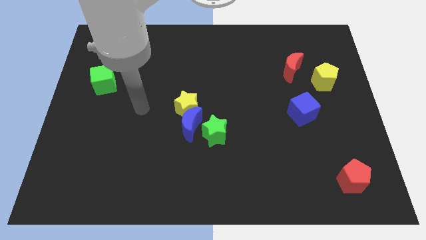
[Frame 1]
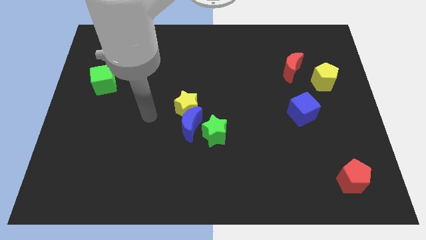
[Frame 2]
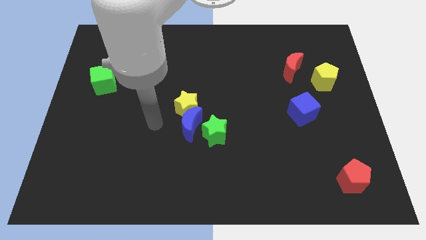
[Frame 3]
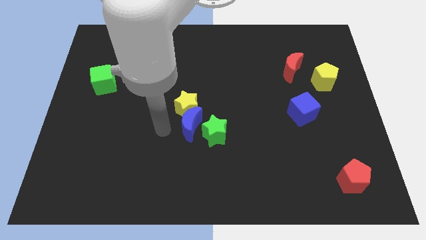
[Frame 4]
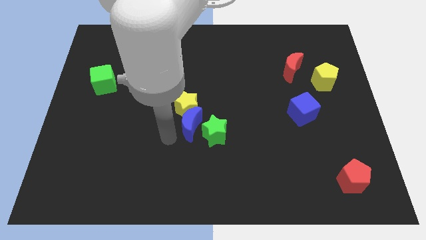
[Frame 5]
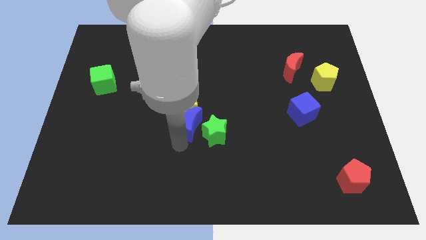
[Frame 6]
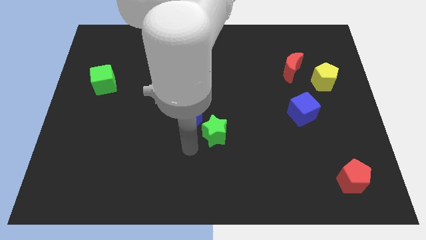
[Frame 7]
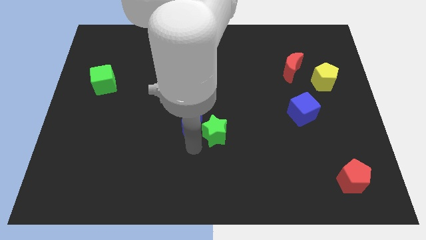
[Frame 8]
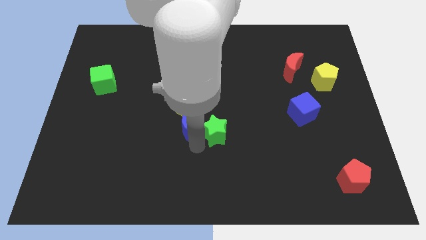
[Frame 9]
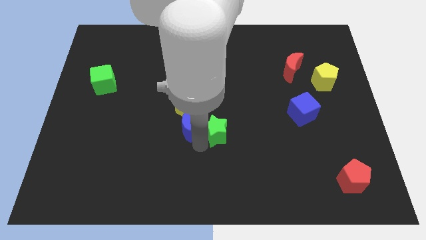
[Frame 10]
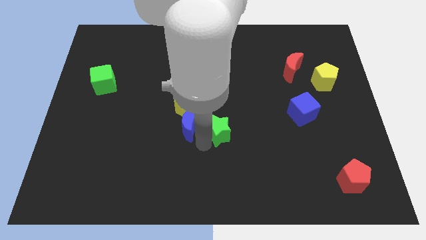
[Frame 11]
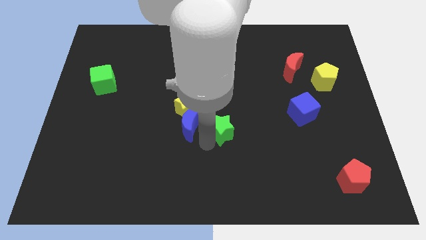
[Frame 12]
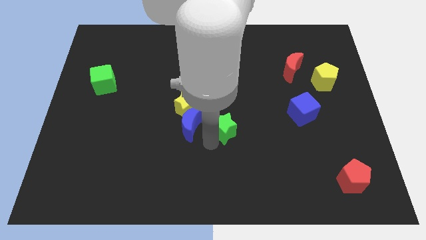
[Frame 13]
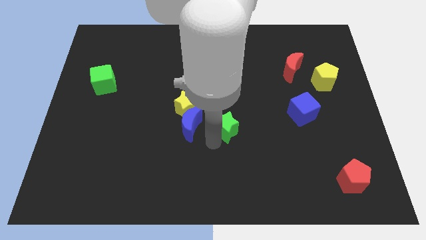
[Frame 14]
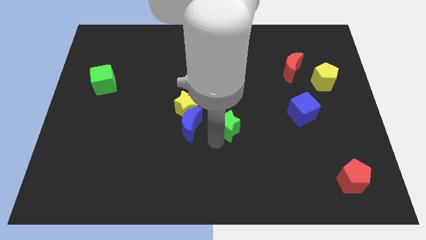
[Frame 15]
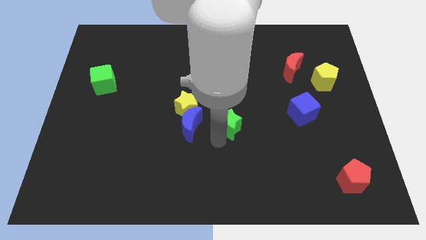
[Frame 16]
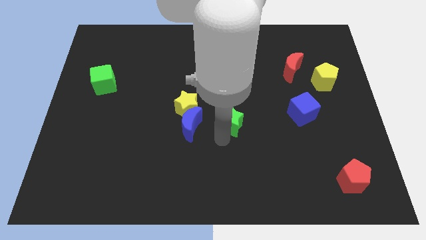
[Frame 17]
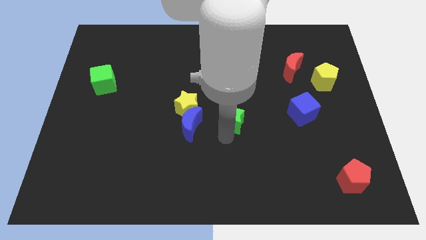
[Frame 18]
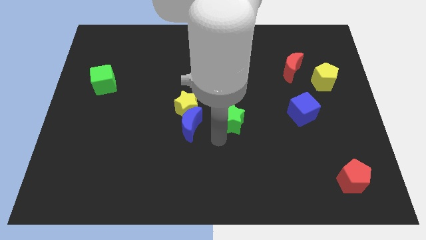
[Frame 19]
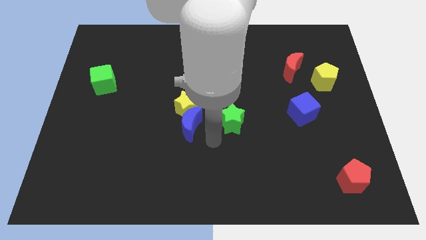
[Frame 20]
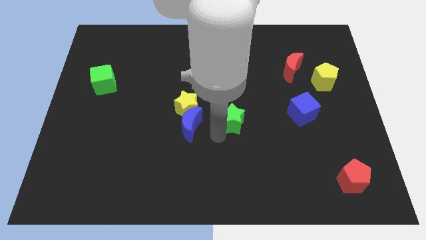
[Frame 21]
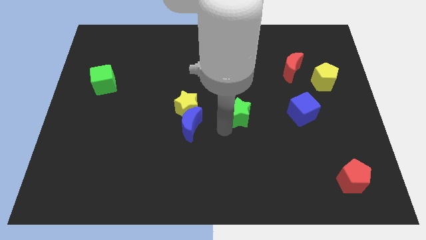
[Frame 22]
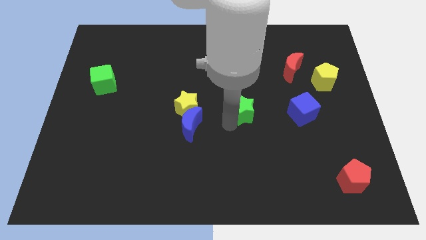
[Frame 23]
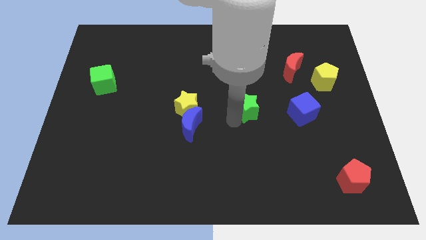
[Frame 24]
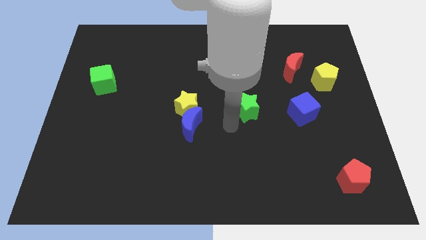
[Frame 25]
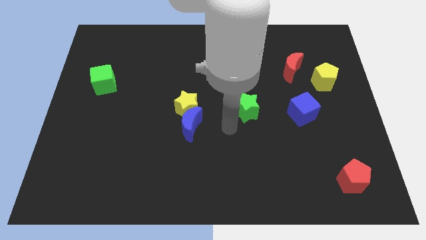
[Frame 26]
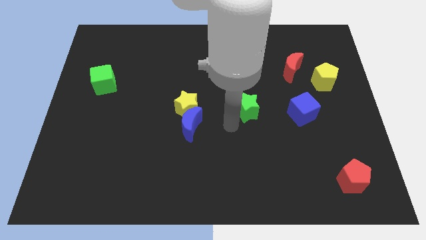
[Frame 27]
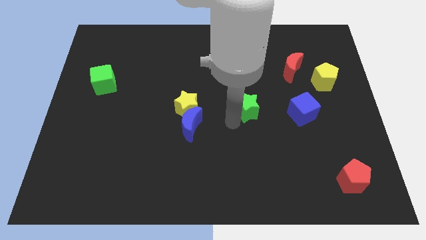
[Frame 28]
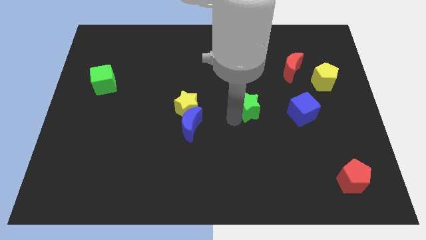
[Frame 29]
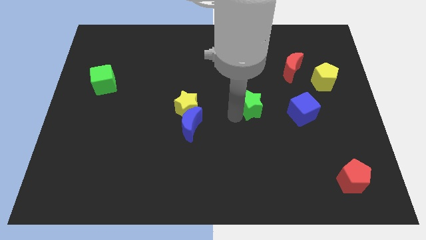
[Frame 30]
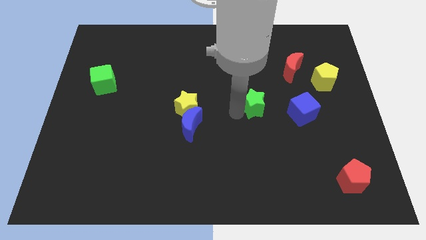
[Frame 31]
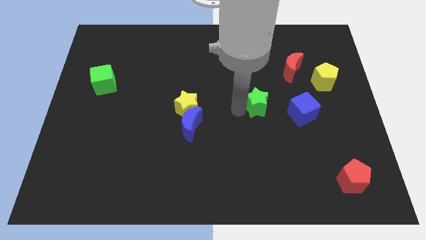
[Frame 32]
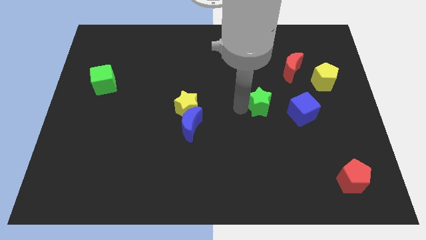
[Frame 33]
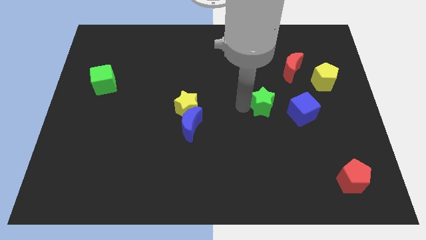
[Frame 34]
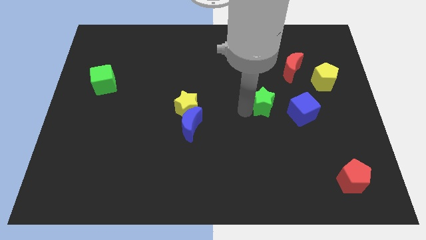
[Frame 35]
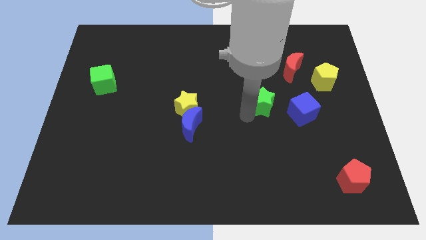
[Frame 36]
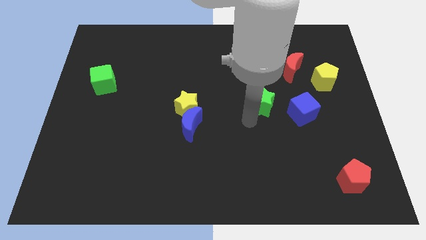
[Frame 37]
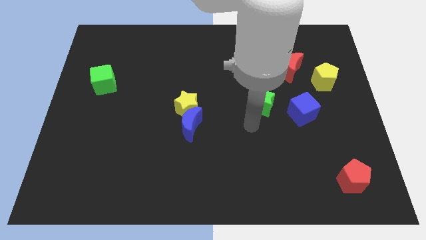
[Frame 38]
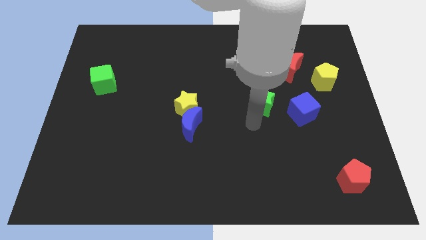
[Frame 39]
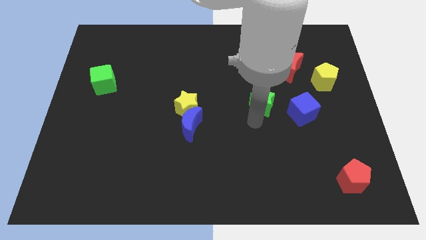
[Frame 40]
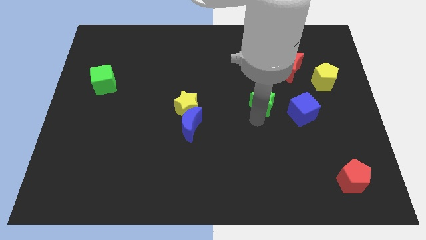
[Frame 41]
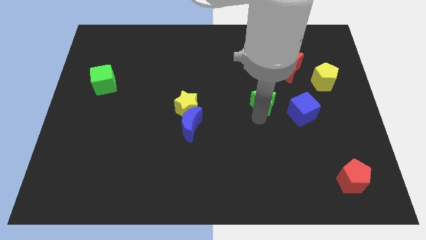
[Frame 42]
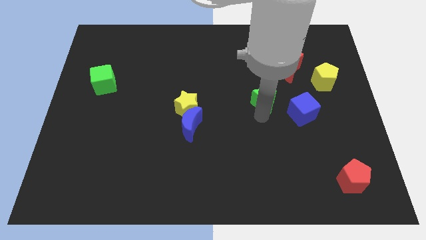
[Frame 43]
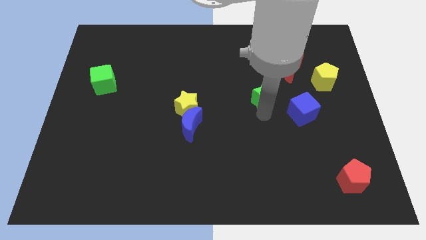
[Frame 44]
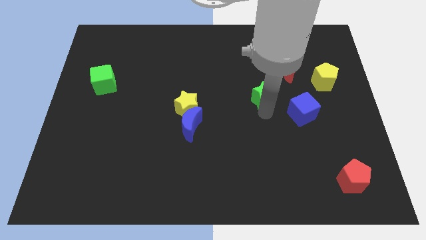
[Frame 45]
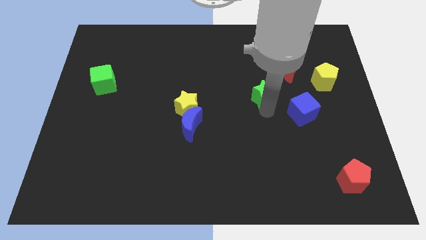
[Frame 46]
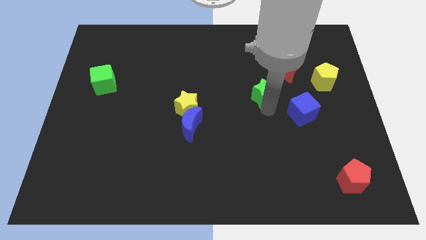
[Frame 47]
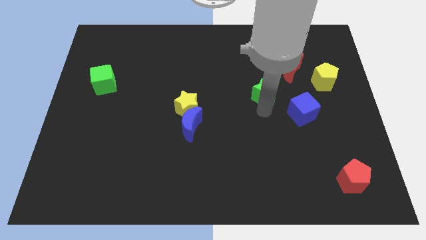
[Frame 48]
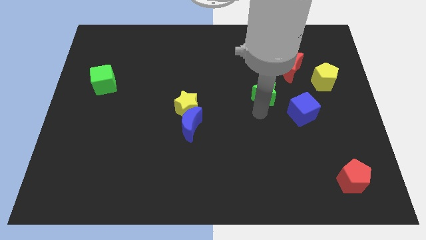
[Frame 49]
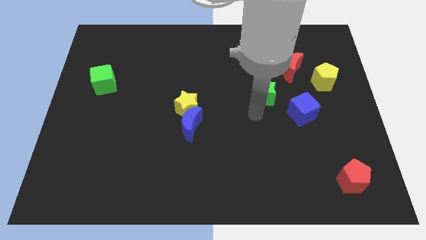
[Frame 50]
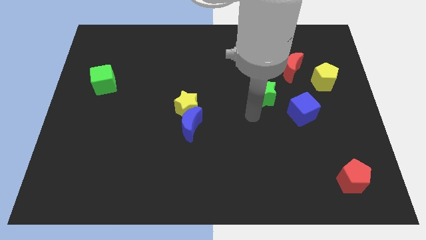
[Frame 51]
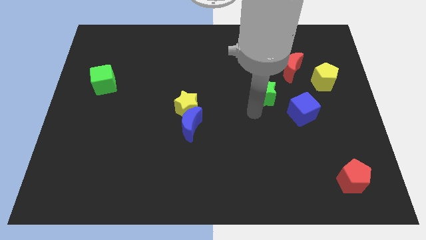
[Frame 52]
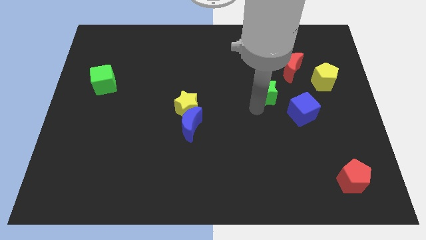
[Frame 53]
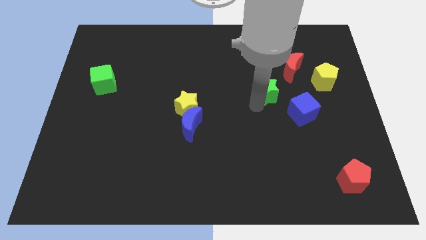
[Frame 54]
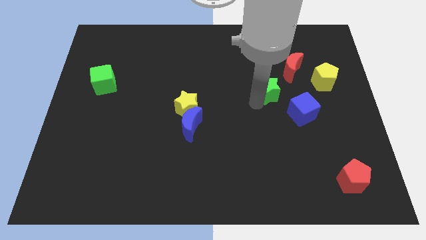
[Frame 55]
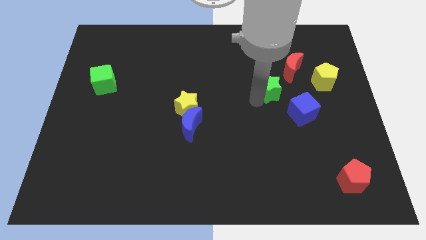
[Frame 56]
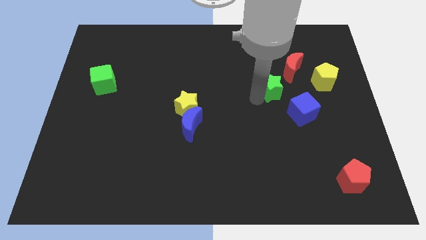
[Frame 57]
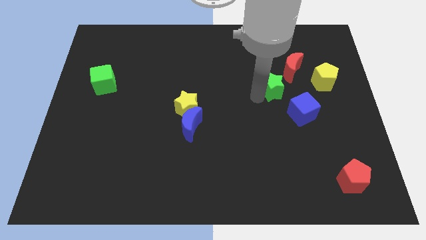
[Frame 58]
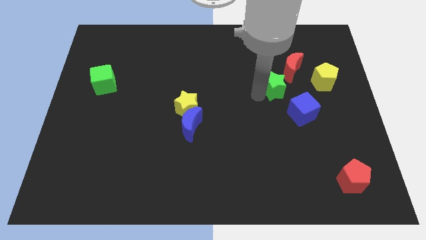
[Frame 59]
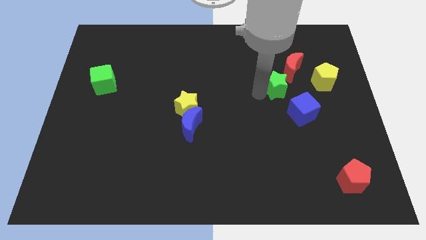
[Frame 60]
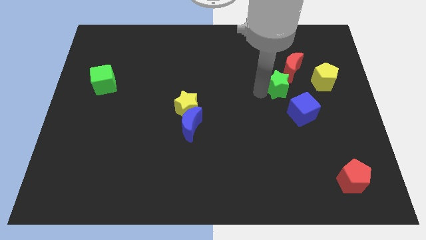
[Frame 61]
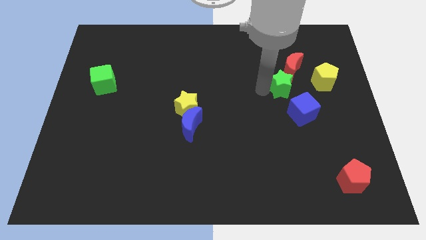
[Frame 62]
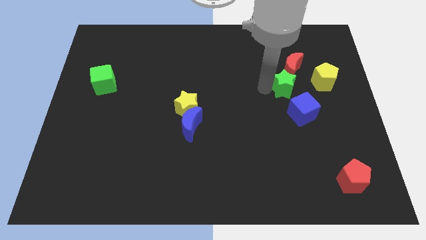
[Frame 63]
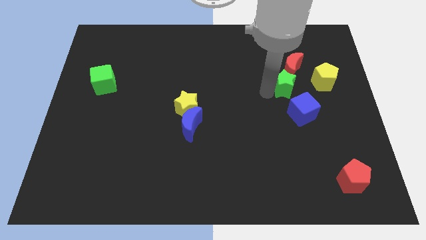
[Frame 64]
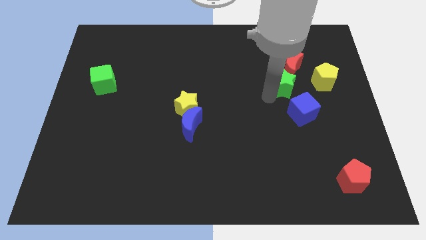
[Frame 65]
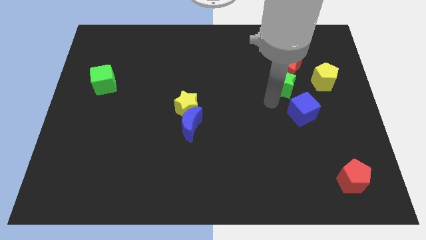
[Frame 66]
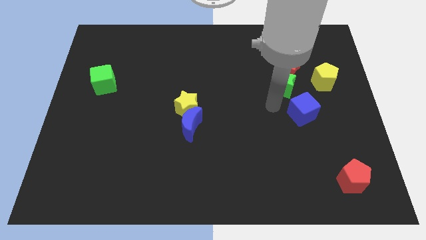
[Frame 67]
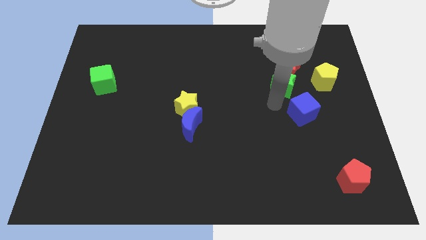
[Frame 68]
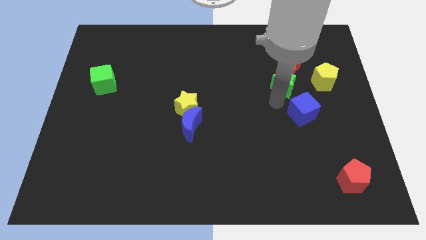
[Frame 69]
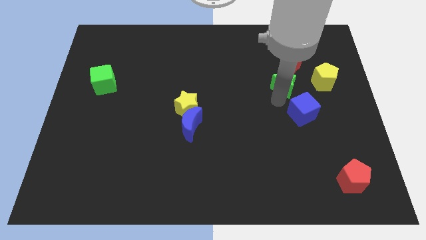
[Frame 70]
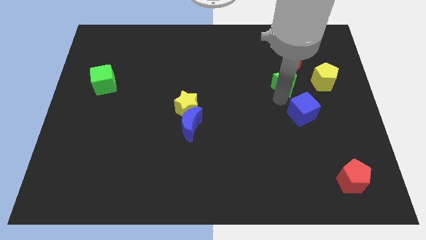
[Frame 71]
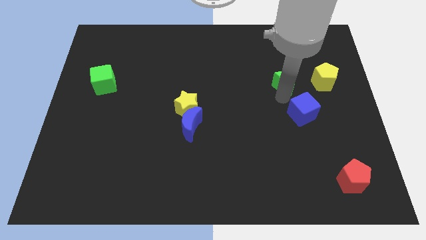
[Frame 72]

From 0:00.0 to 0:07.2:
slide the green star to the red moon
